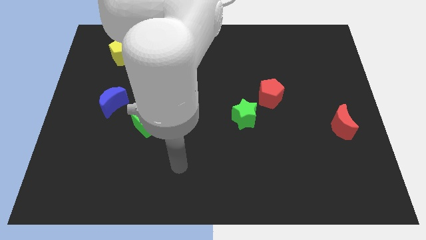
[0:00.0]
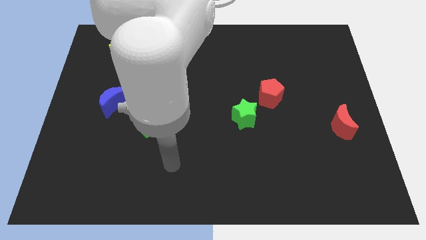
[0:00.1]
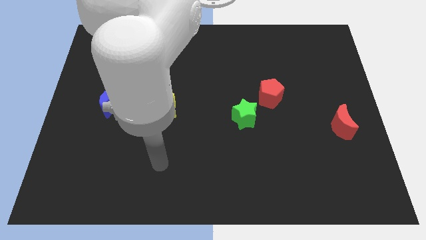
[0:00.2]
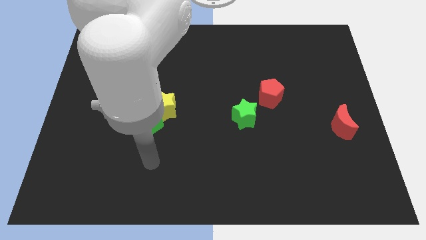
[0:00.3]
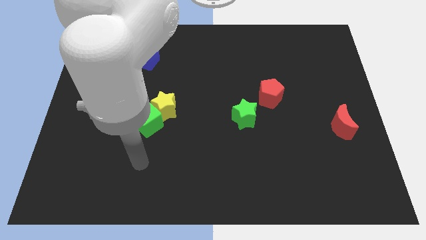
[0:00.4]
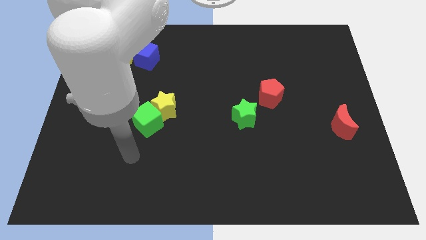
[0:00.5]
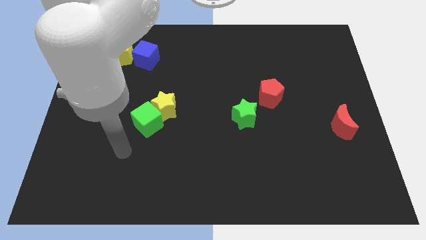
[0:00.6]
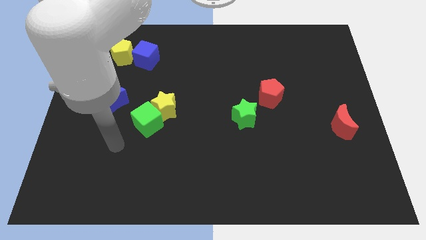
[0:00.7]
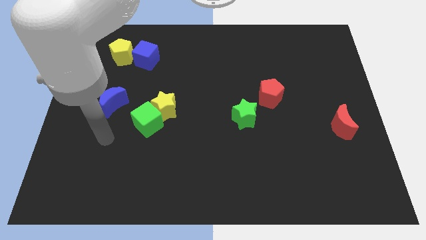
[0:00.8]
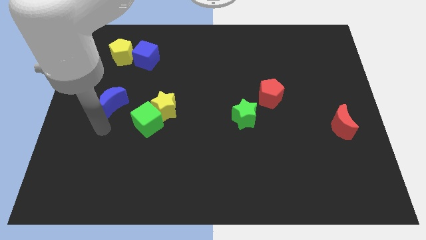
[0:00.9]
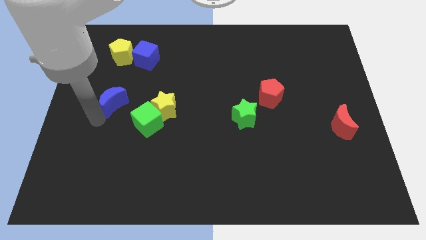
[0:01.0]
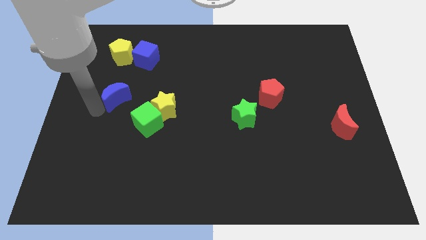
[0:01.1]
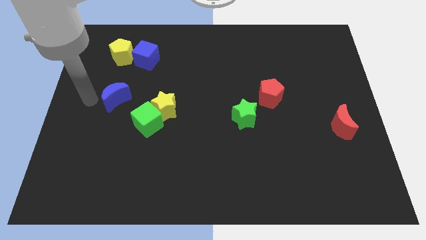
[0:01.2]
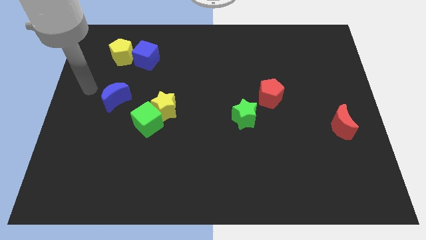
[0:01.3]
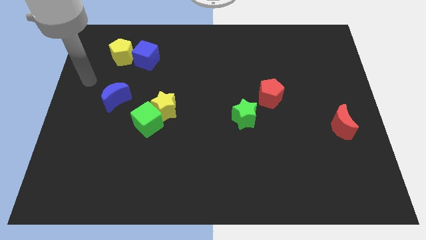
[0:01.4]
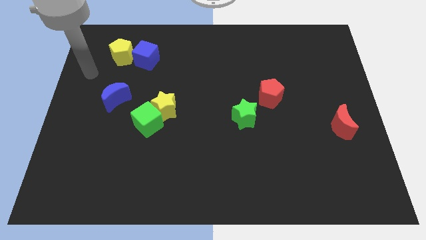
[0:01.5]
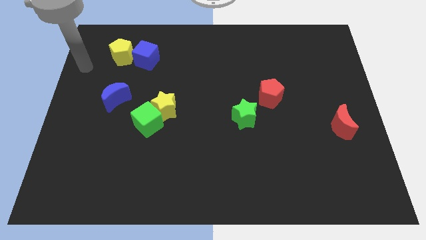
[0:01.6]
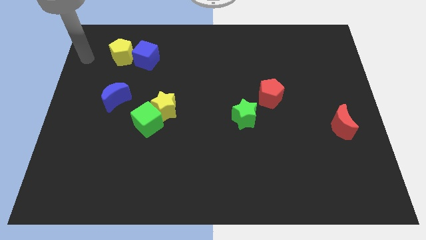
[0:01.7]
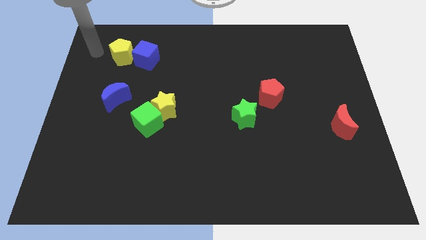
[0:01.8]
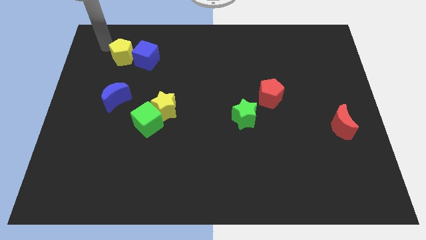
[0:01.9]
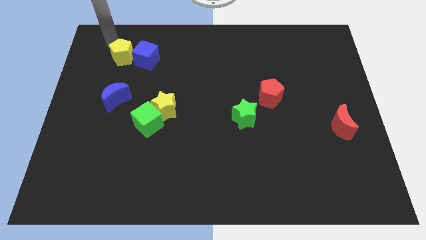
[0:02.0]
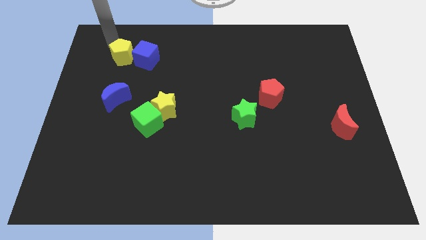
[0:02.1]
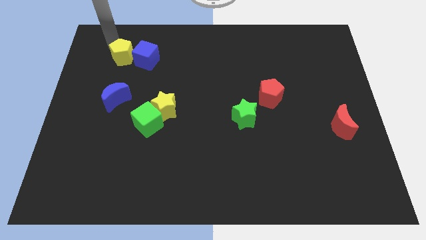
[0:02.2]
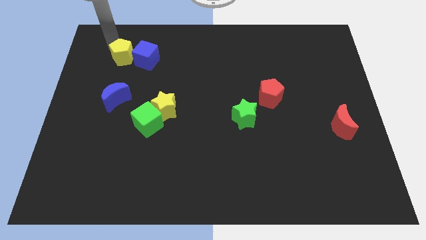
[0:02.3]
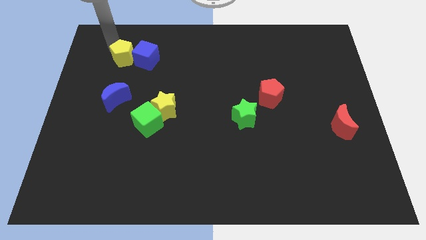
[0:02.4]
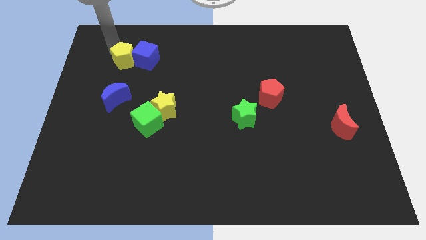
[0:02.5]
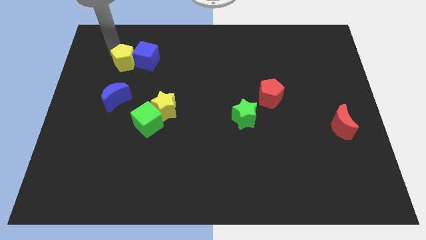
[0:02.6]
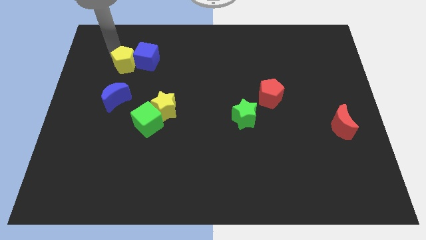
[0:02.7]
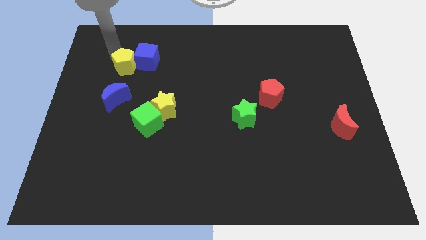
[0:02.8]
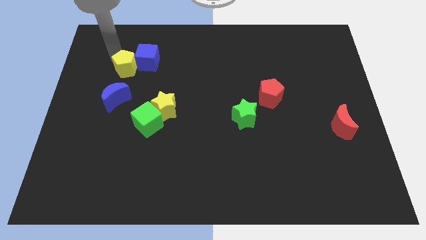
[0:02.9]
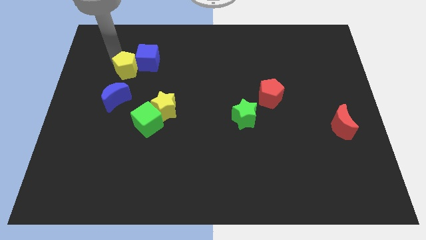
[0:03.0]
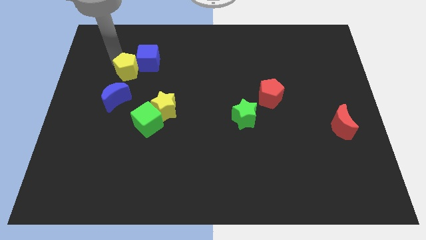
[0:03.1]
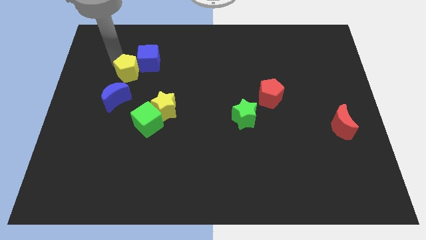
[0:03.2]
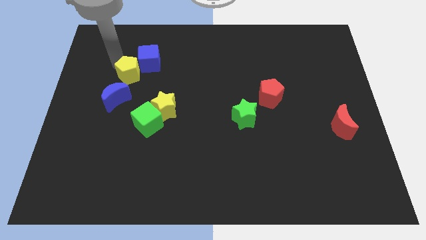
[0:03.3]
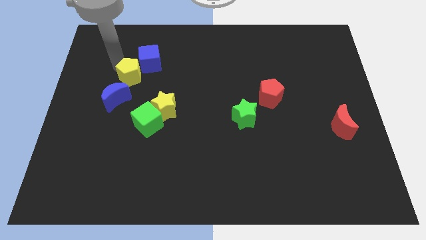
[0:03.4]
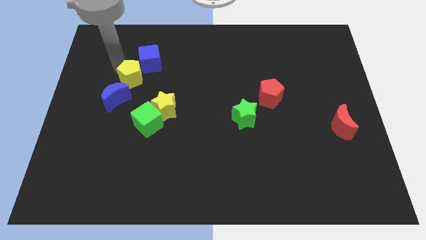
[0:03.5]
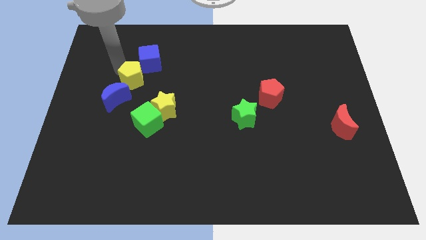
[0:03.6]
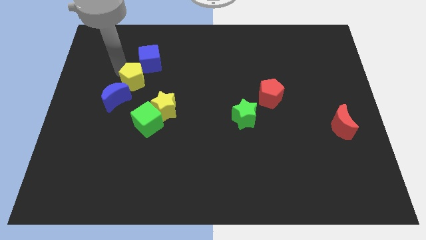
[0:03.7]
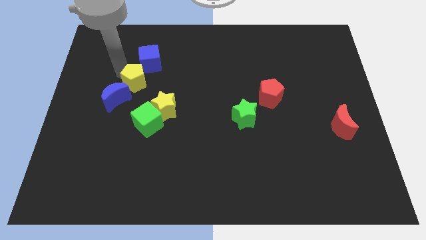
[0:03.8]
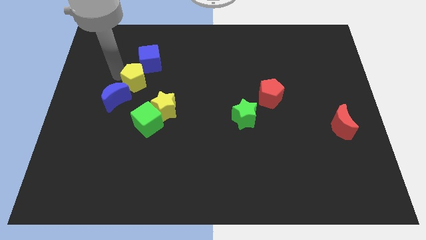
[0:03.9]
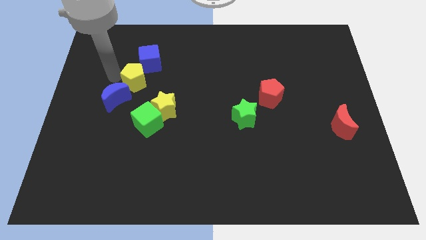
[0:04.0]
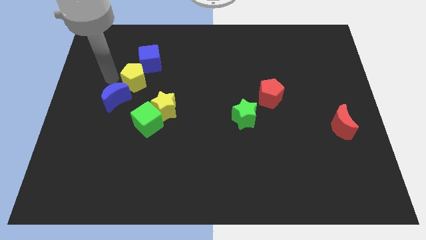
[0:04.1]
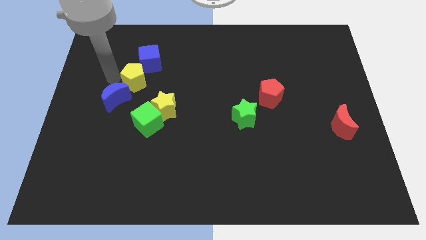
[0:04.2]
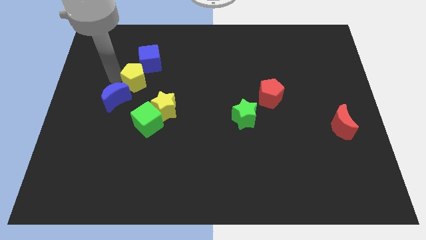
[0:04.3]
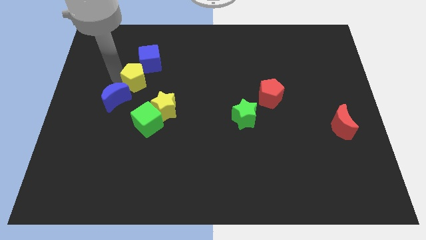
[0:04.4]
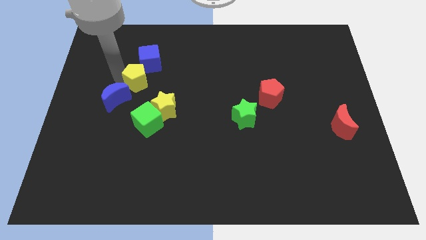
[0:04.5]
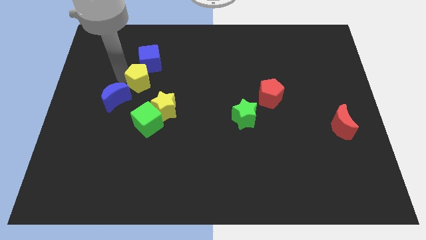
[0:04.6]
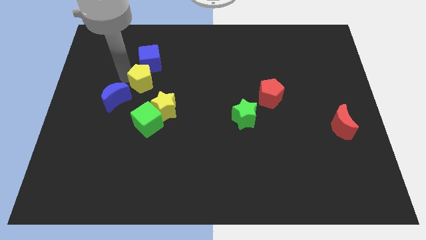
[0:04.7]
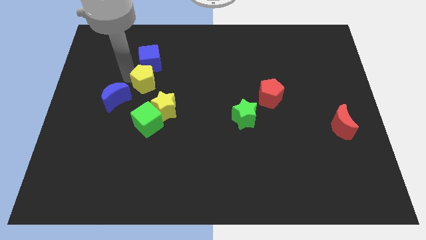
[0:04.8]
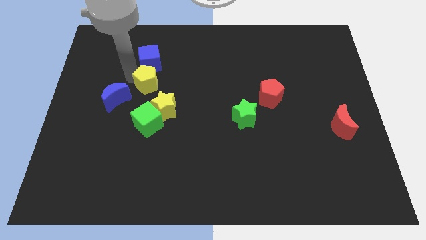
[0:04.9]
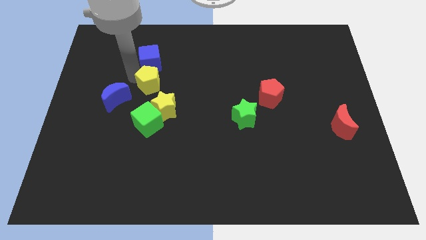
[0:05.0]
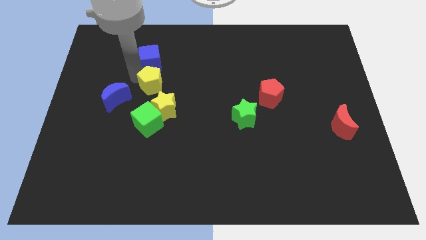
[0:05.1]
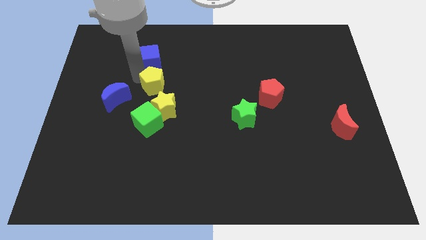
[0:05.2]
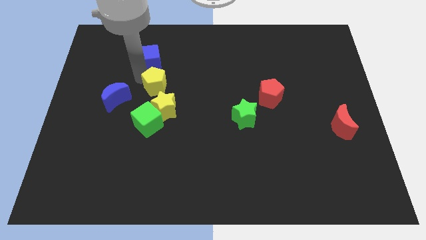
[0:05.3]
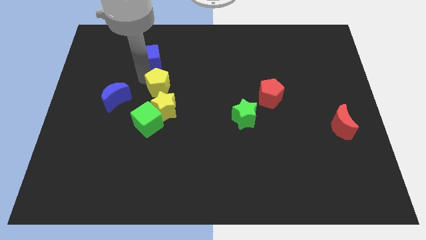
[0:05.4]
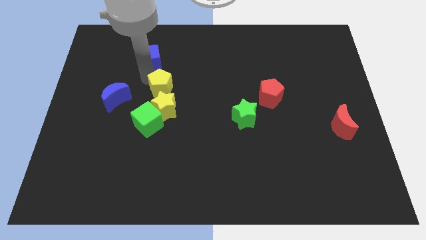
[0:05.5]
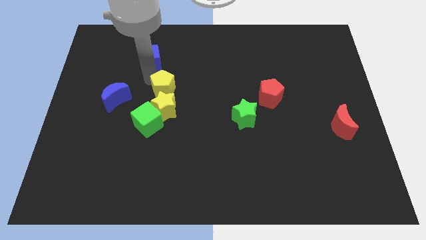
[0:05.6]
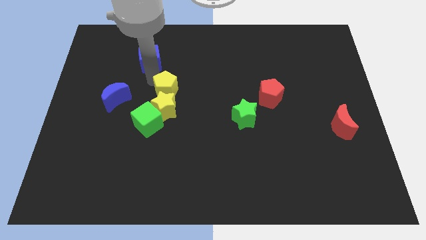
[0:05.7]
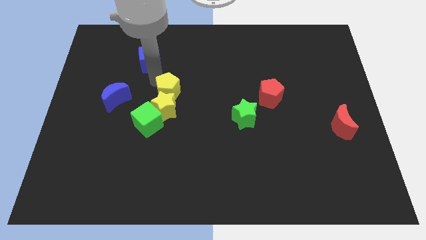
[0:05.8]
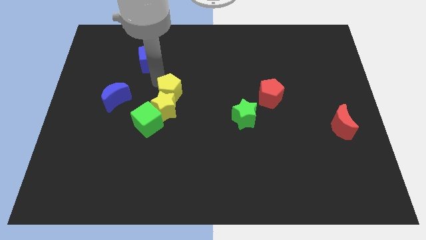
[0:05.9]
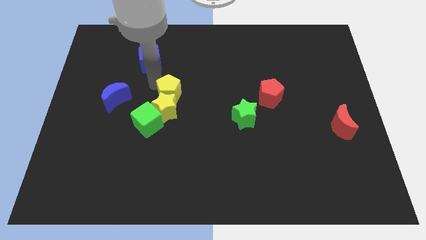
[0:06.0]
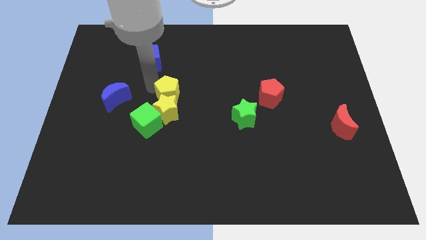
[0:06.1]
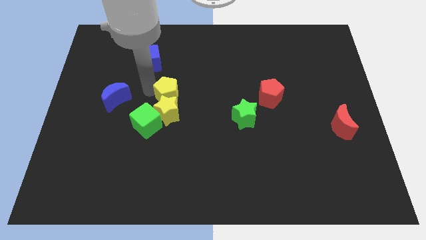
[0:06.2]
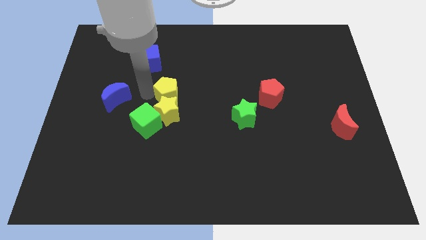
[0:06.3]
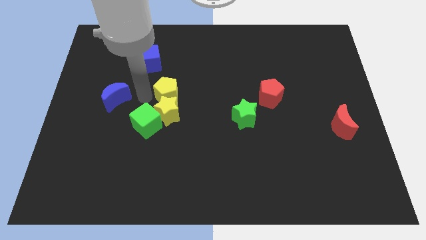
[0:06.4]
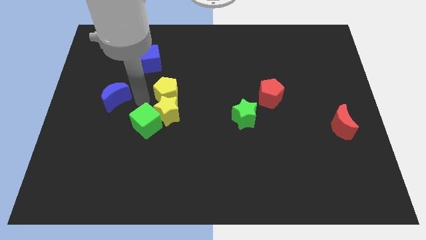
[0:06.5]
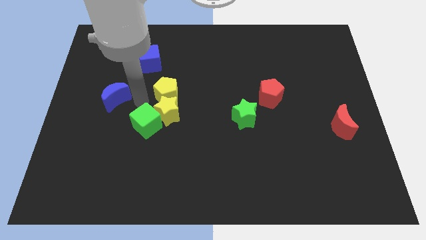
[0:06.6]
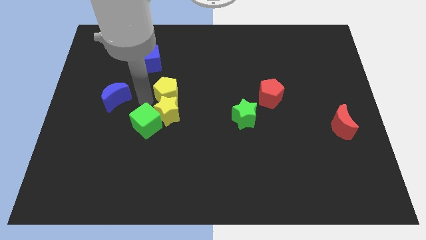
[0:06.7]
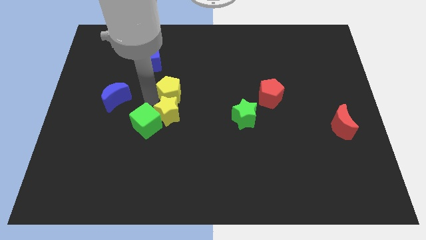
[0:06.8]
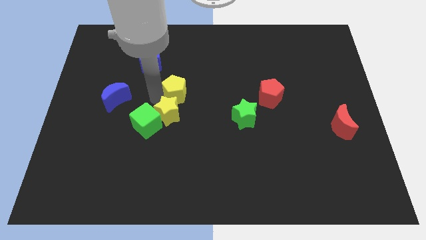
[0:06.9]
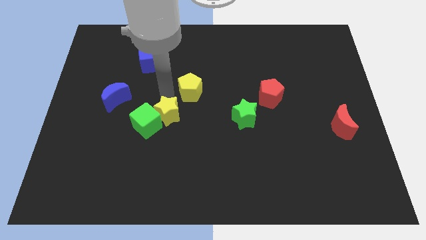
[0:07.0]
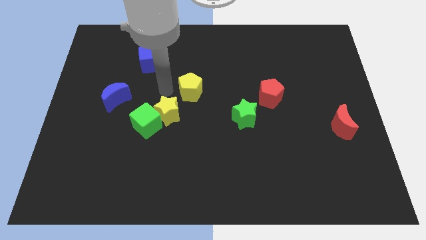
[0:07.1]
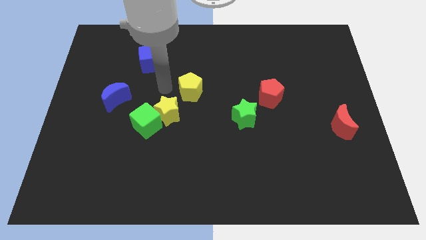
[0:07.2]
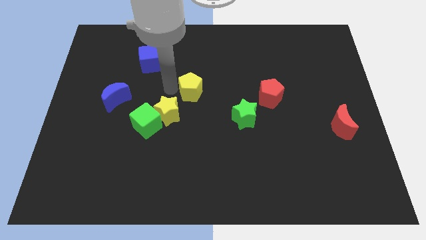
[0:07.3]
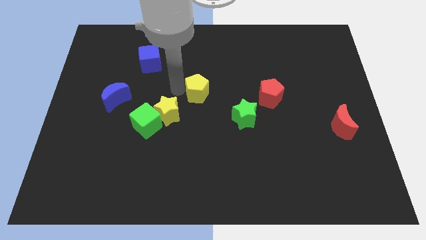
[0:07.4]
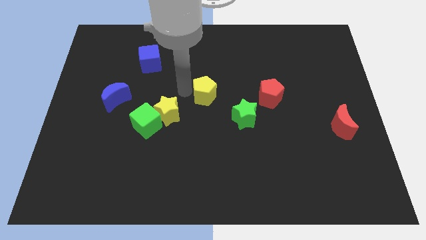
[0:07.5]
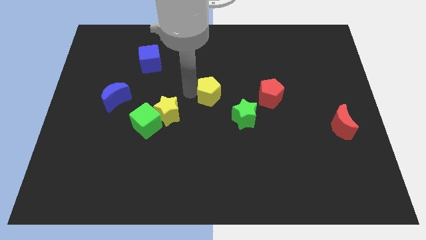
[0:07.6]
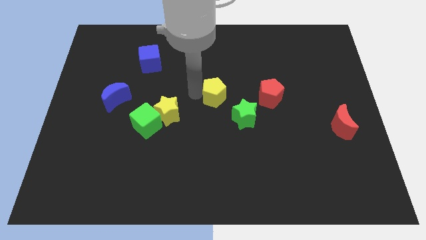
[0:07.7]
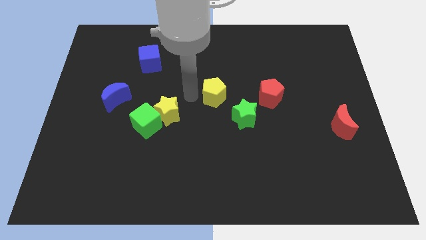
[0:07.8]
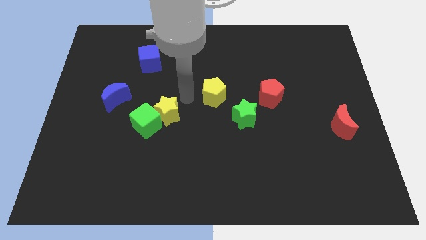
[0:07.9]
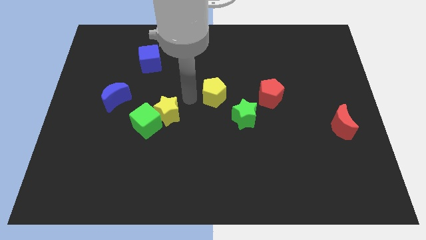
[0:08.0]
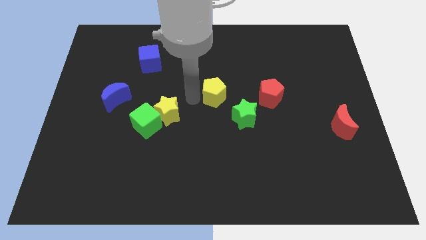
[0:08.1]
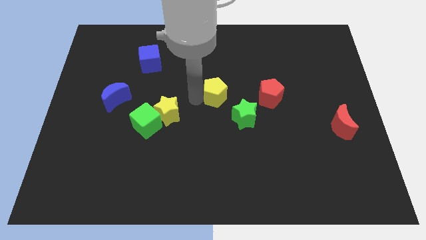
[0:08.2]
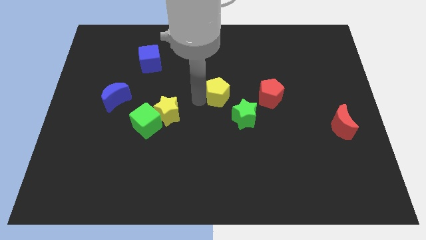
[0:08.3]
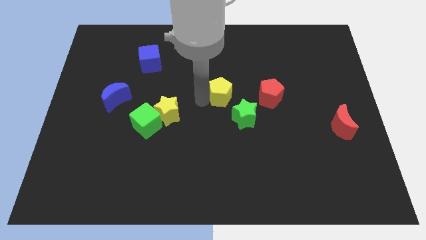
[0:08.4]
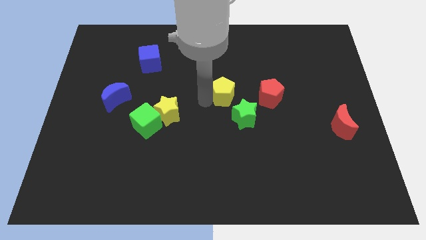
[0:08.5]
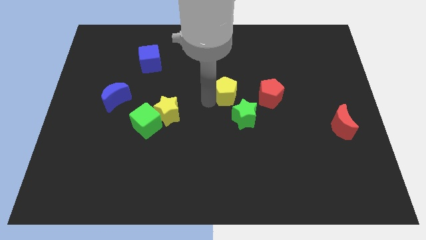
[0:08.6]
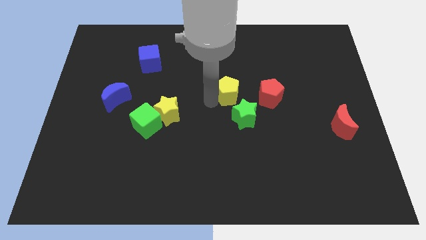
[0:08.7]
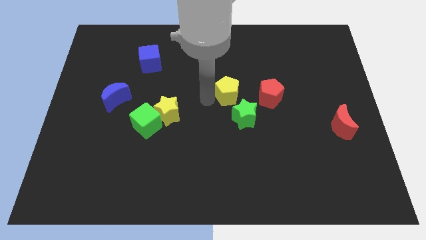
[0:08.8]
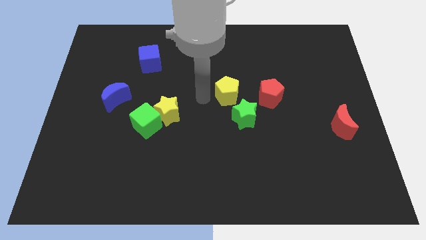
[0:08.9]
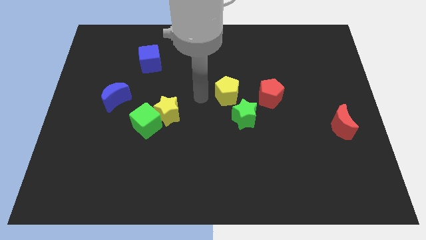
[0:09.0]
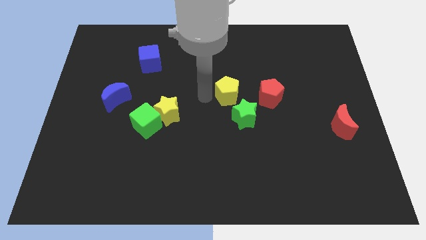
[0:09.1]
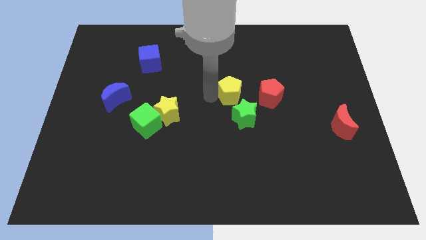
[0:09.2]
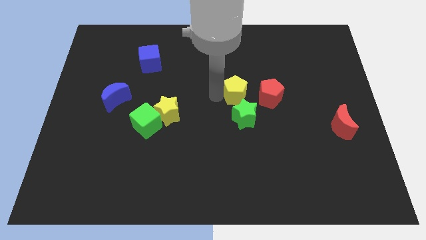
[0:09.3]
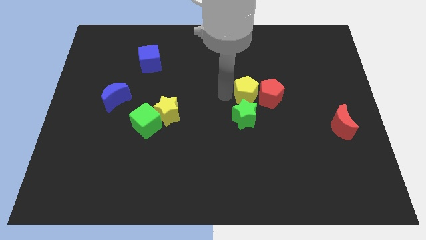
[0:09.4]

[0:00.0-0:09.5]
slide the yellow pentagon to the red pentagon
